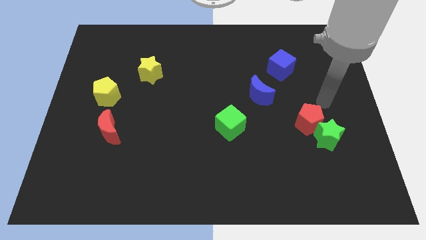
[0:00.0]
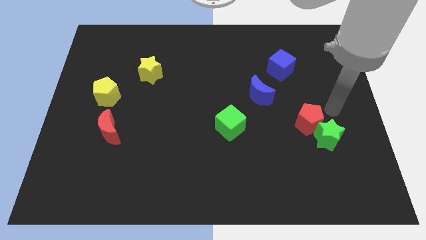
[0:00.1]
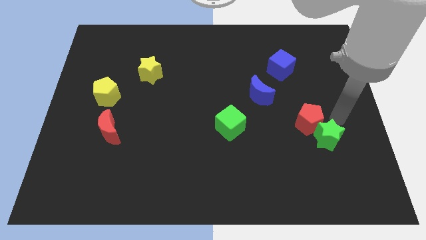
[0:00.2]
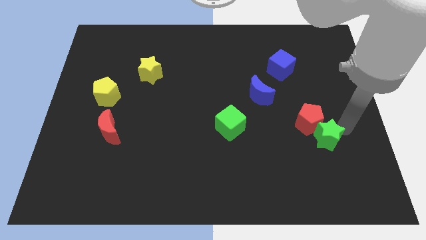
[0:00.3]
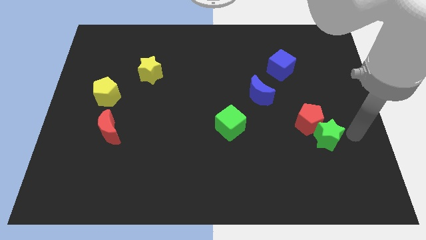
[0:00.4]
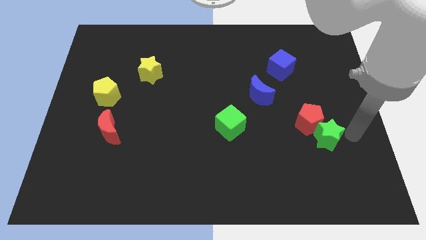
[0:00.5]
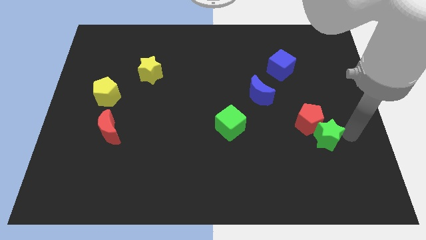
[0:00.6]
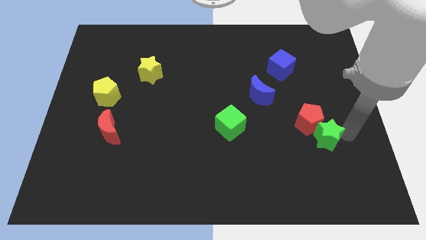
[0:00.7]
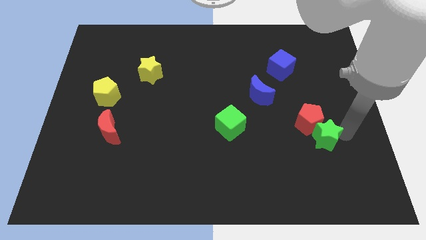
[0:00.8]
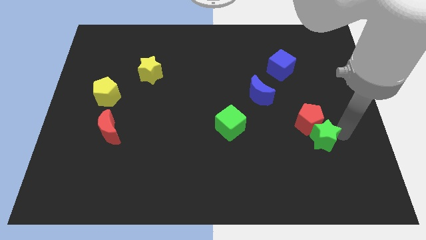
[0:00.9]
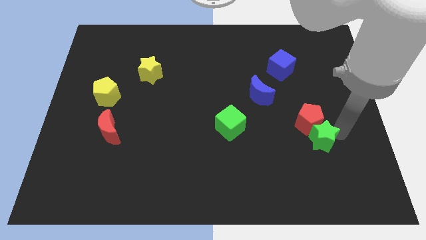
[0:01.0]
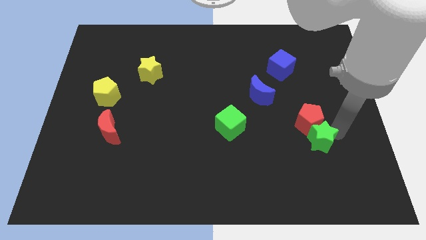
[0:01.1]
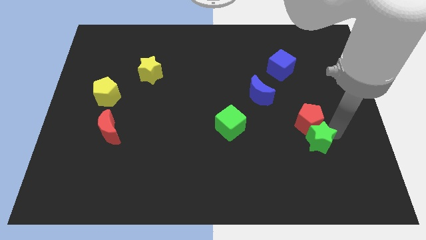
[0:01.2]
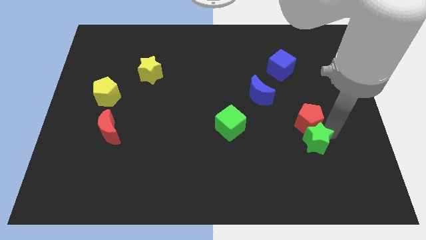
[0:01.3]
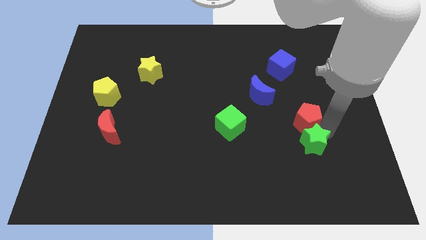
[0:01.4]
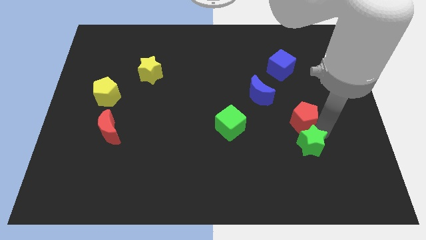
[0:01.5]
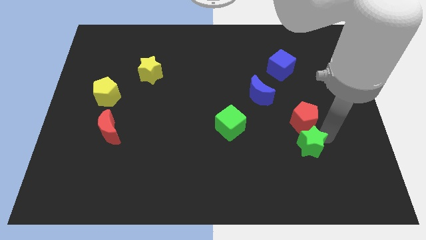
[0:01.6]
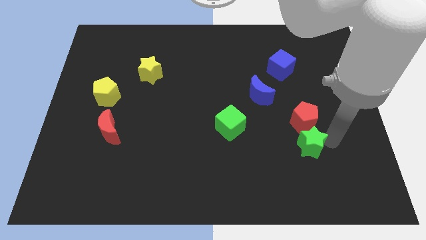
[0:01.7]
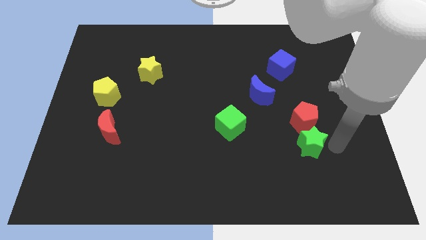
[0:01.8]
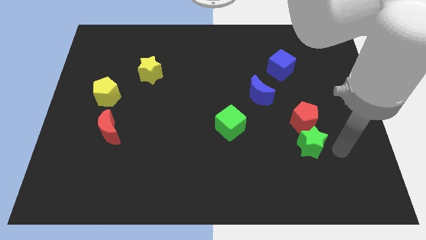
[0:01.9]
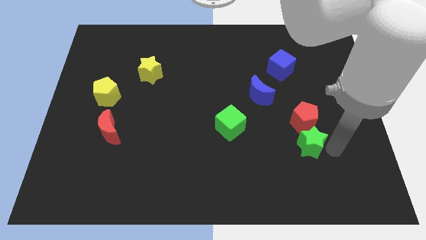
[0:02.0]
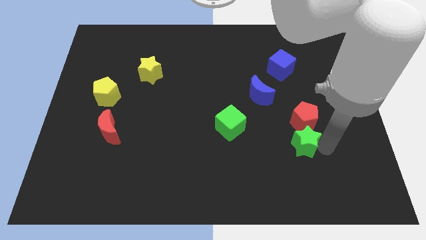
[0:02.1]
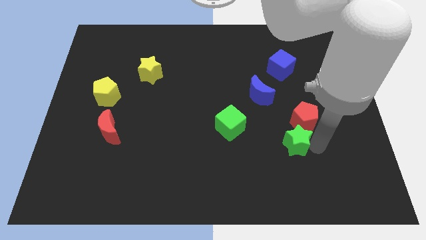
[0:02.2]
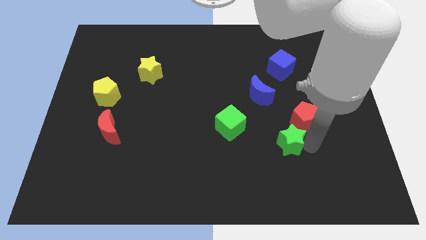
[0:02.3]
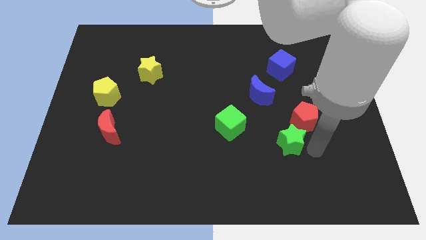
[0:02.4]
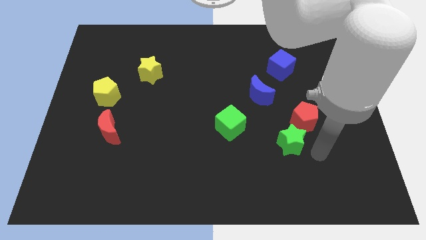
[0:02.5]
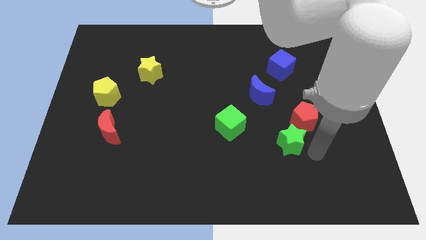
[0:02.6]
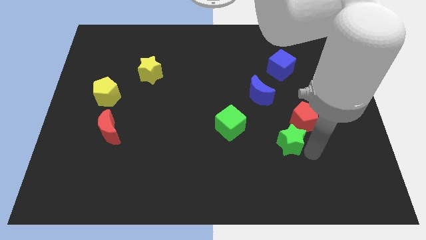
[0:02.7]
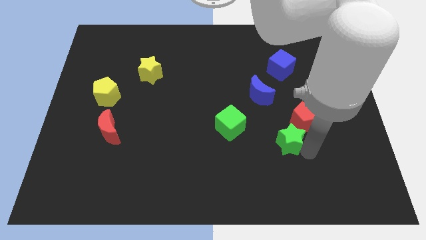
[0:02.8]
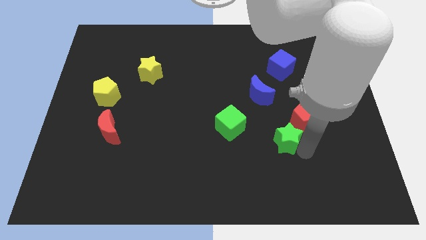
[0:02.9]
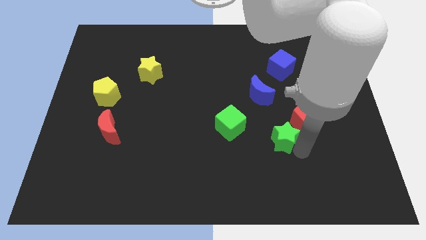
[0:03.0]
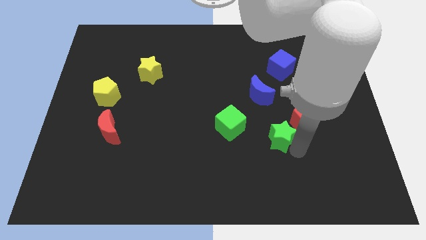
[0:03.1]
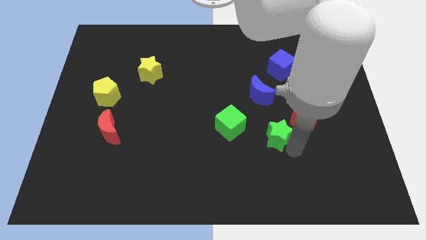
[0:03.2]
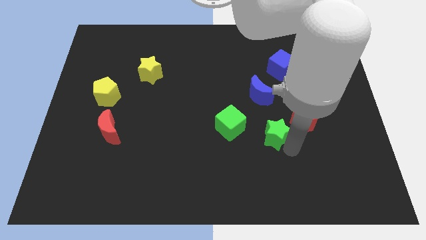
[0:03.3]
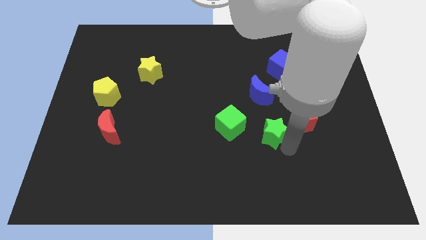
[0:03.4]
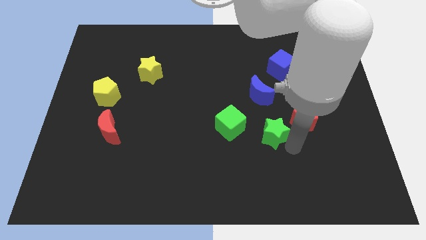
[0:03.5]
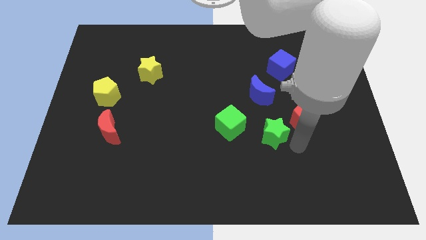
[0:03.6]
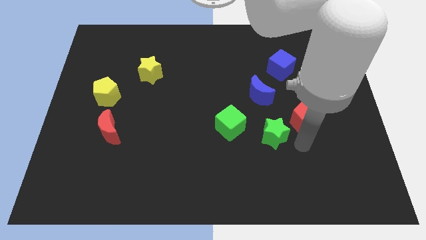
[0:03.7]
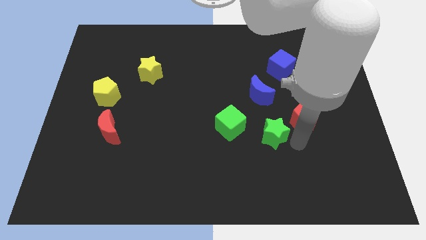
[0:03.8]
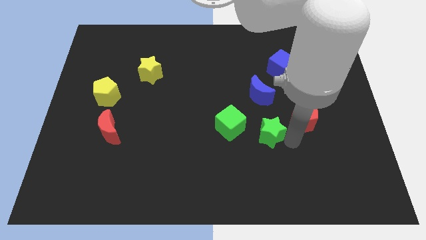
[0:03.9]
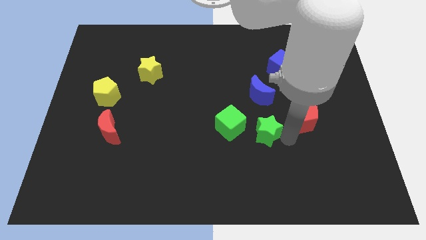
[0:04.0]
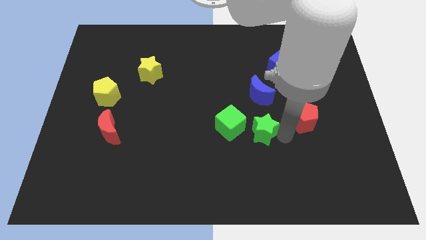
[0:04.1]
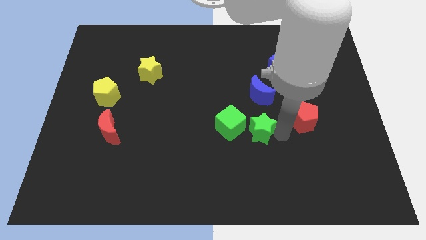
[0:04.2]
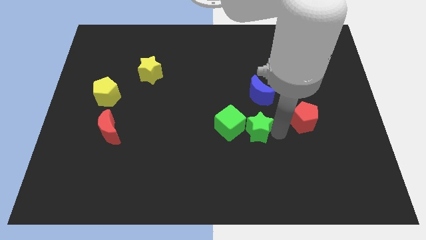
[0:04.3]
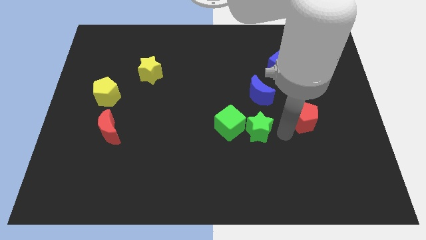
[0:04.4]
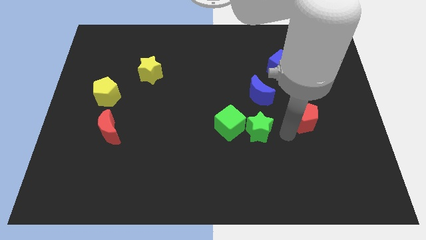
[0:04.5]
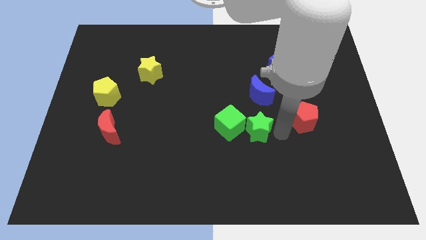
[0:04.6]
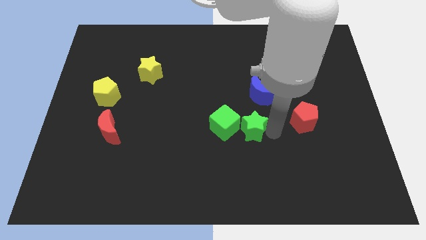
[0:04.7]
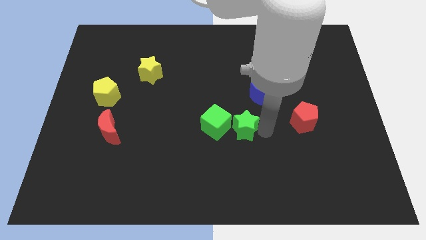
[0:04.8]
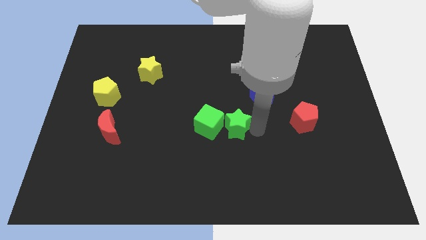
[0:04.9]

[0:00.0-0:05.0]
push the green star towards the green cube

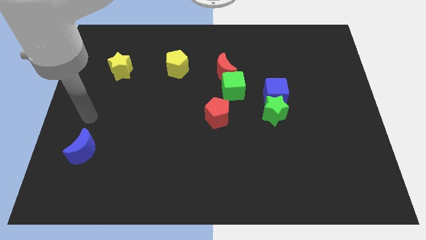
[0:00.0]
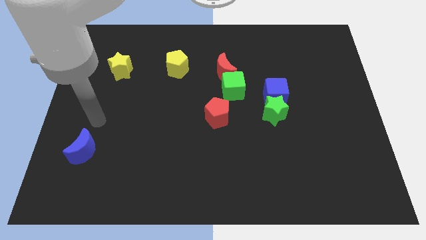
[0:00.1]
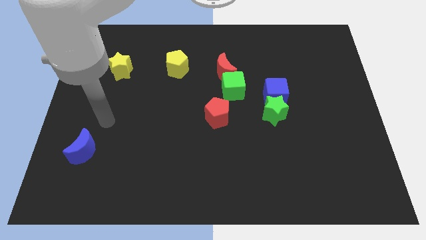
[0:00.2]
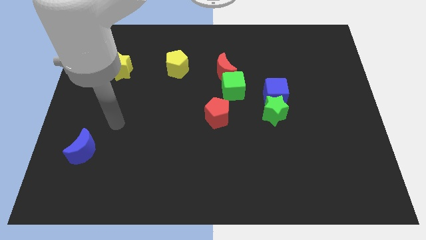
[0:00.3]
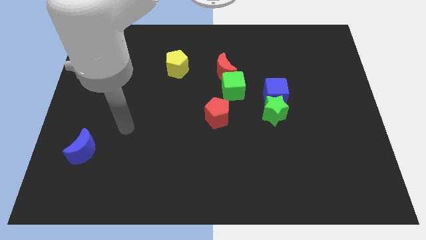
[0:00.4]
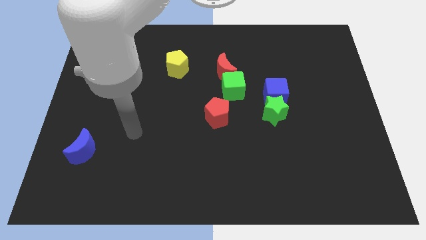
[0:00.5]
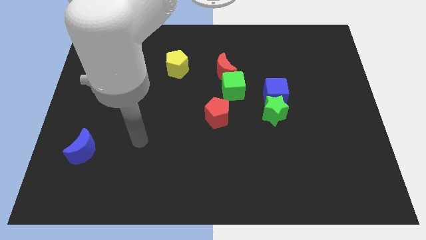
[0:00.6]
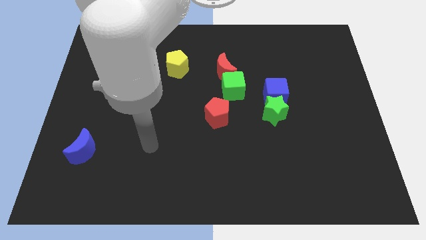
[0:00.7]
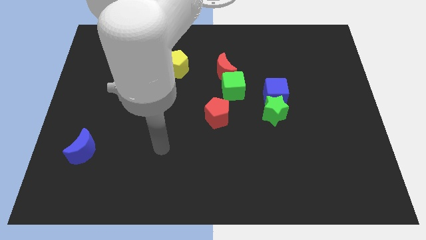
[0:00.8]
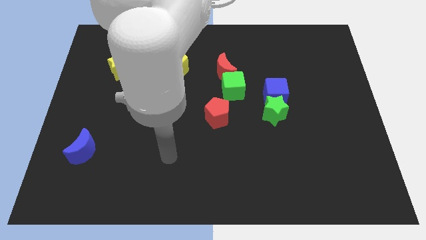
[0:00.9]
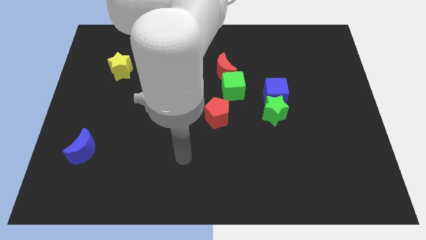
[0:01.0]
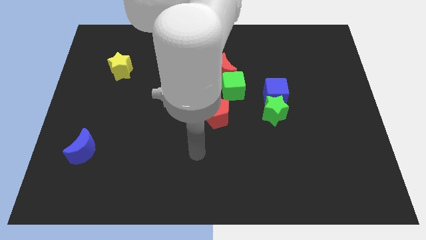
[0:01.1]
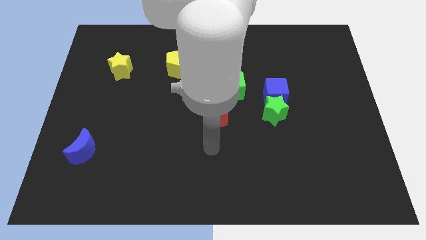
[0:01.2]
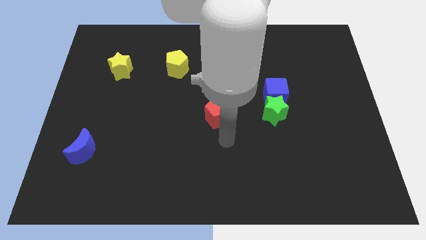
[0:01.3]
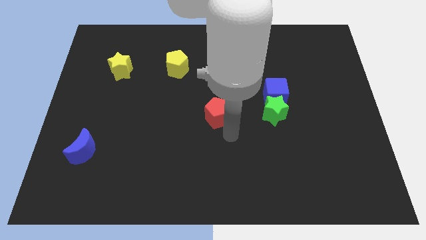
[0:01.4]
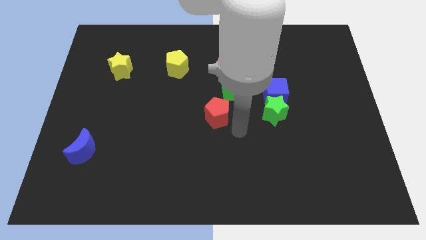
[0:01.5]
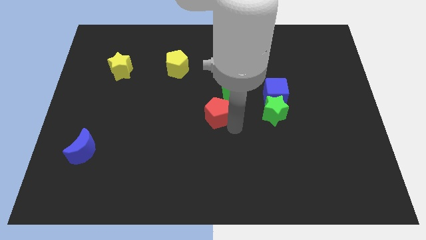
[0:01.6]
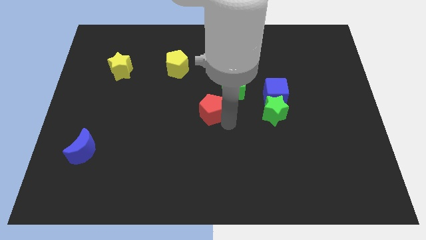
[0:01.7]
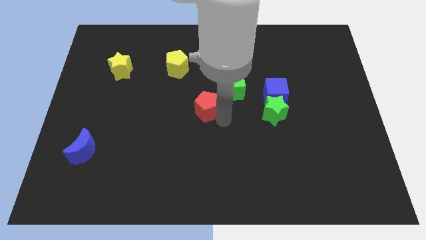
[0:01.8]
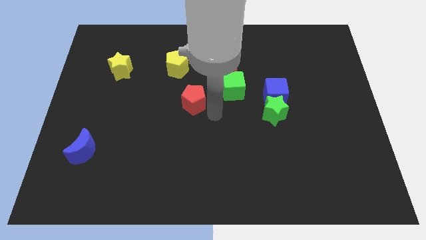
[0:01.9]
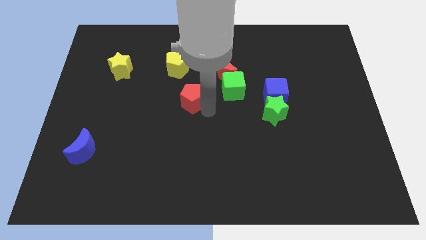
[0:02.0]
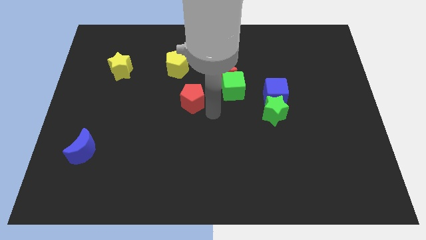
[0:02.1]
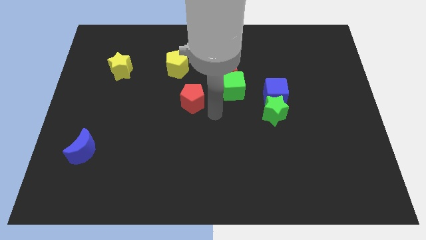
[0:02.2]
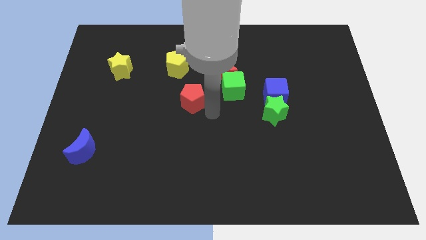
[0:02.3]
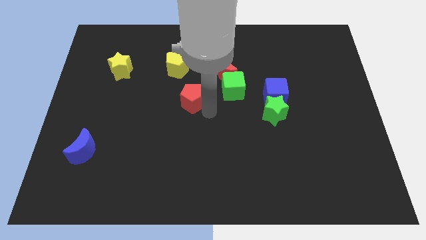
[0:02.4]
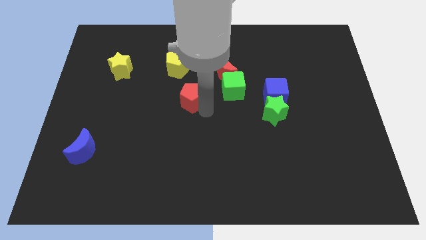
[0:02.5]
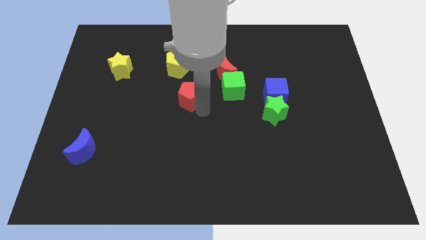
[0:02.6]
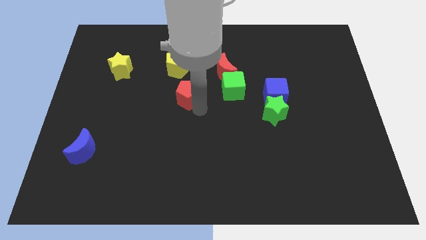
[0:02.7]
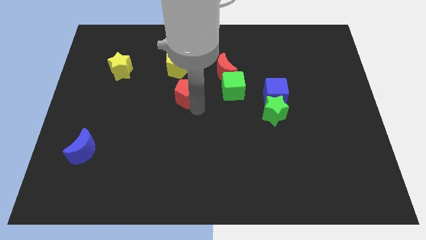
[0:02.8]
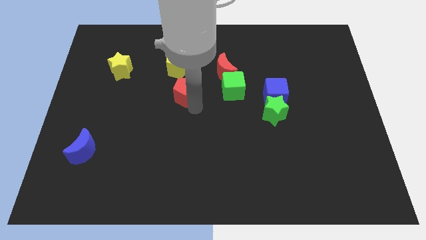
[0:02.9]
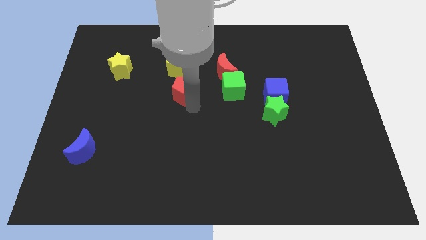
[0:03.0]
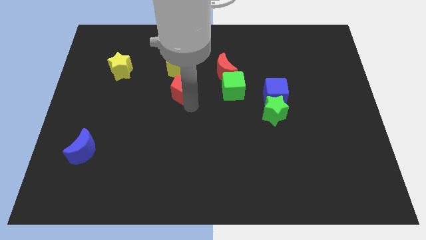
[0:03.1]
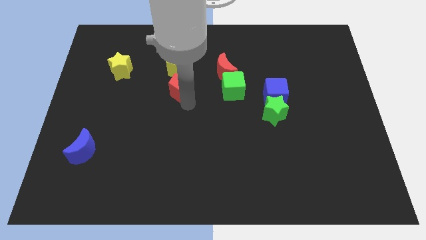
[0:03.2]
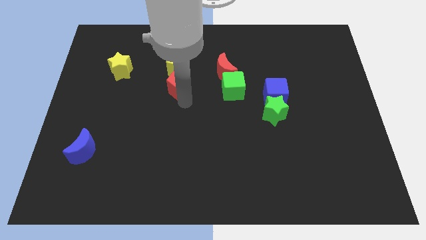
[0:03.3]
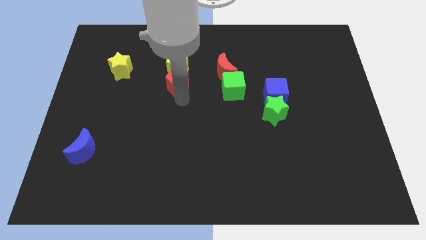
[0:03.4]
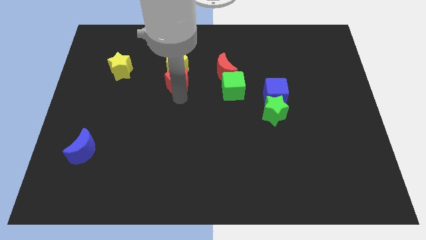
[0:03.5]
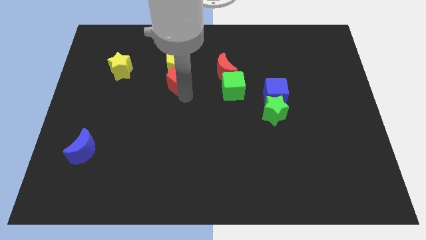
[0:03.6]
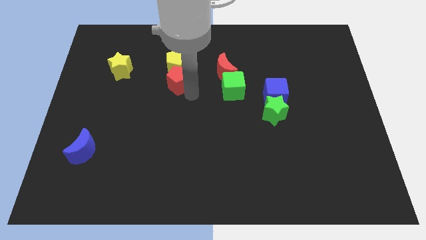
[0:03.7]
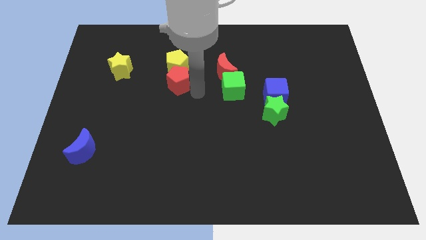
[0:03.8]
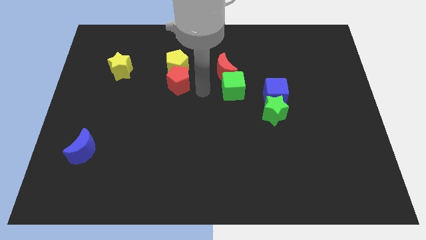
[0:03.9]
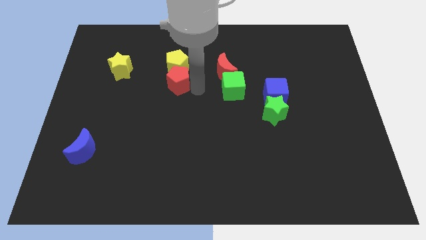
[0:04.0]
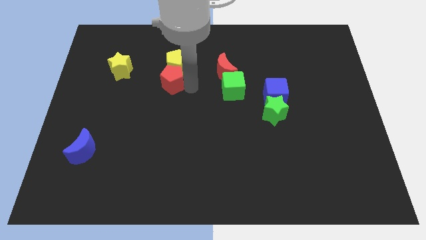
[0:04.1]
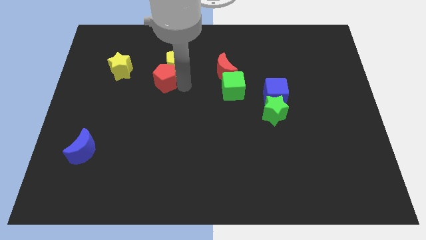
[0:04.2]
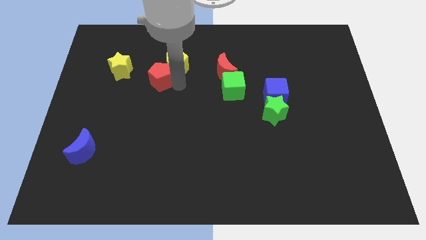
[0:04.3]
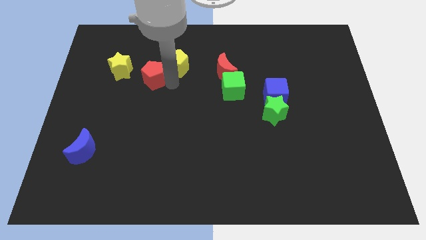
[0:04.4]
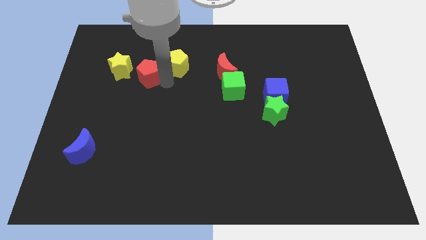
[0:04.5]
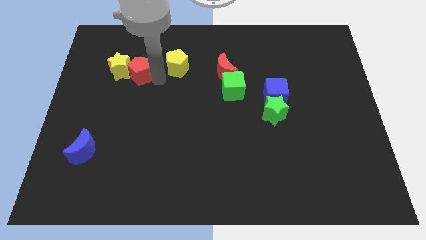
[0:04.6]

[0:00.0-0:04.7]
put the red pentagon close to the yellow star
